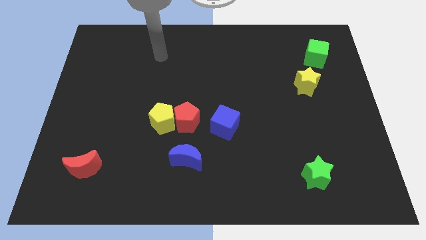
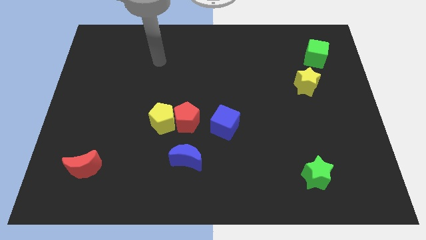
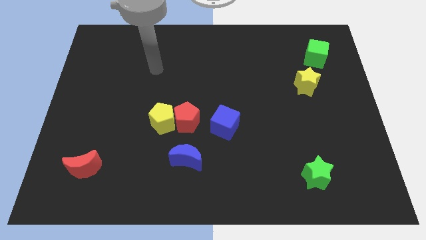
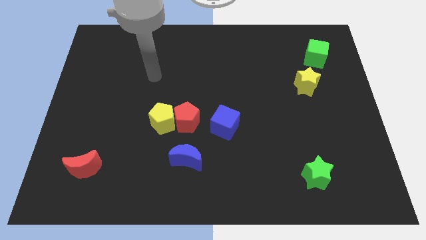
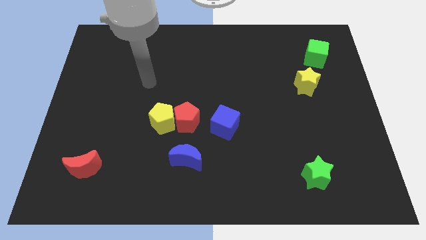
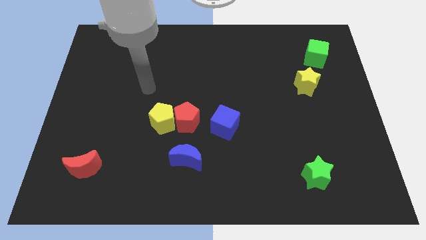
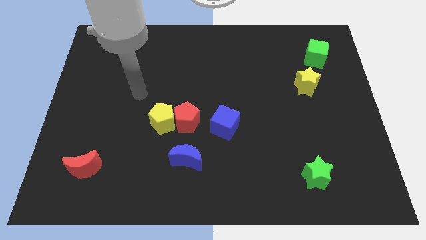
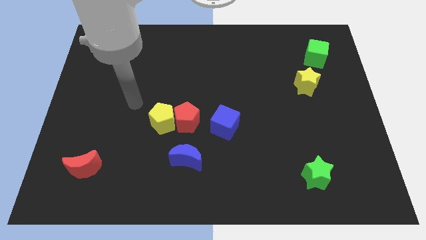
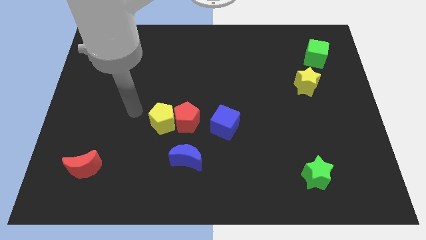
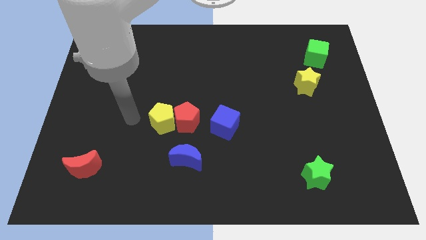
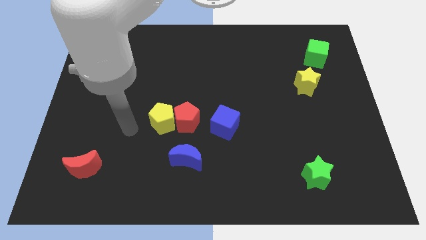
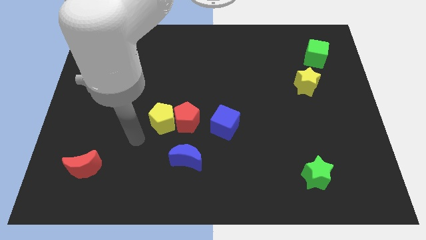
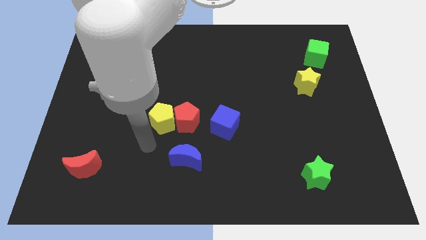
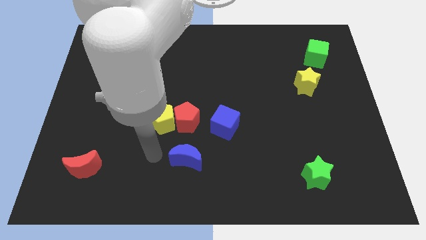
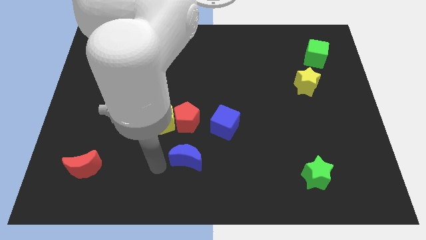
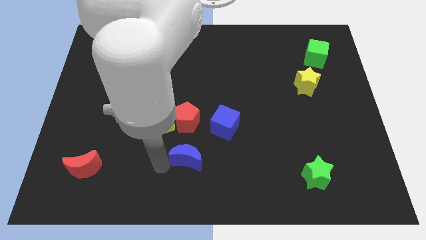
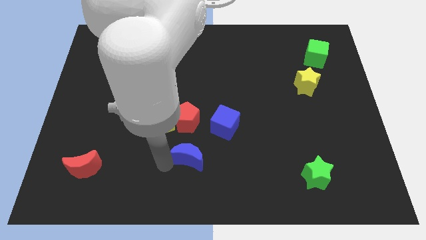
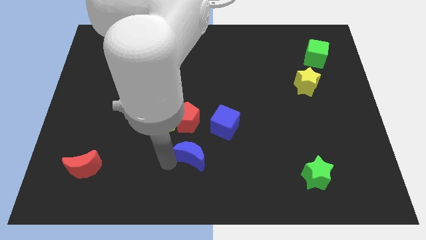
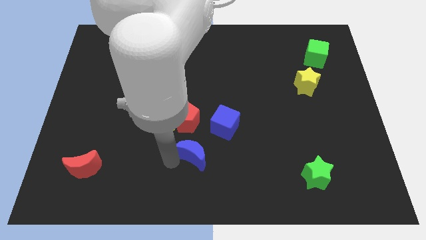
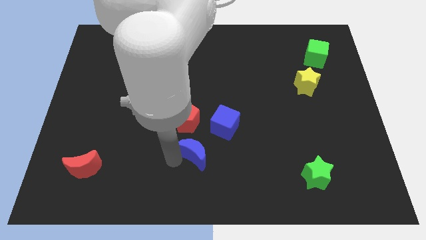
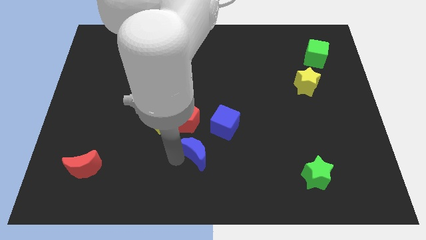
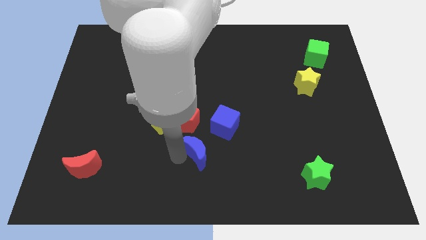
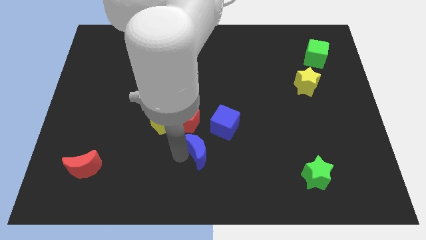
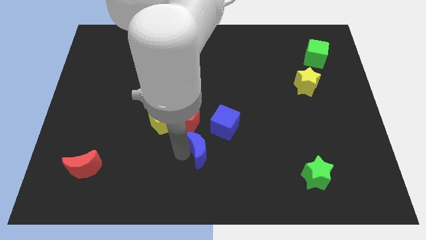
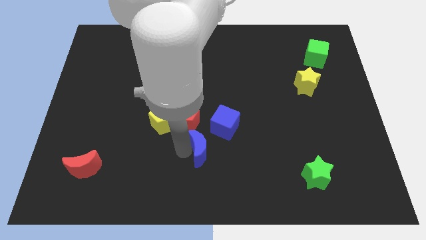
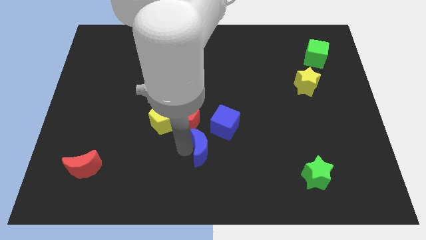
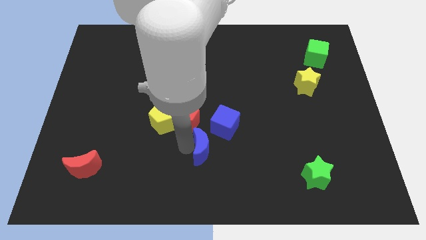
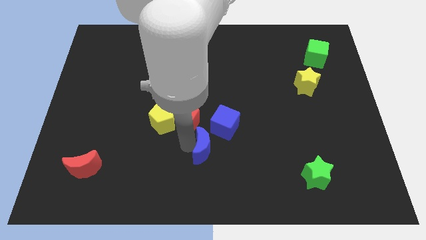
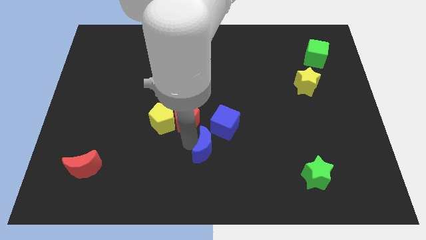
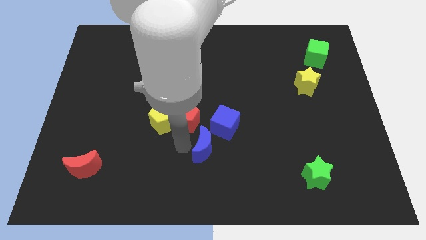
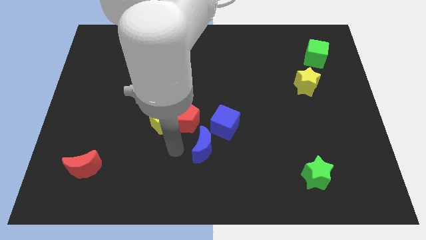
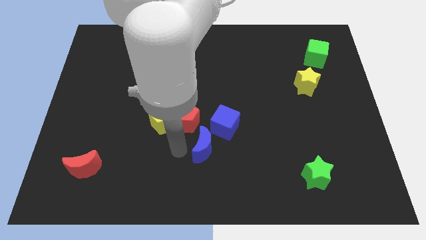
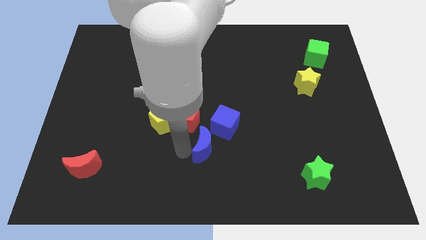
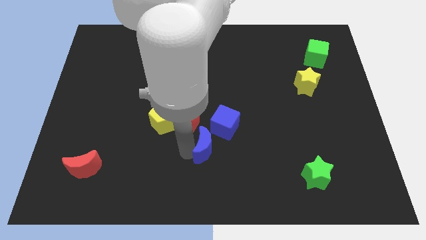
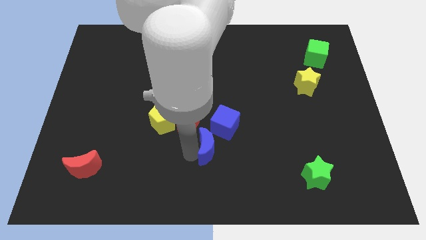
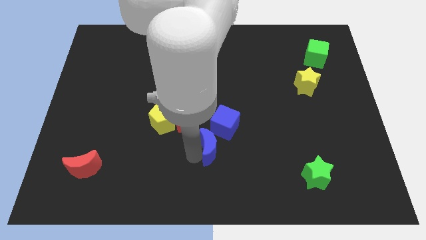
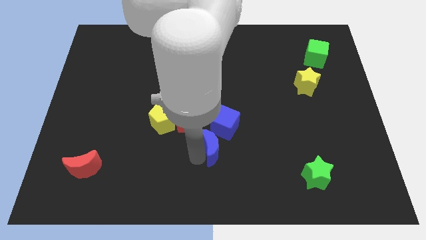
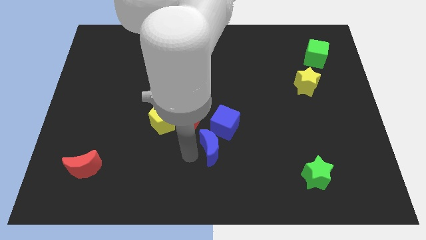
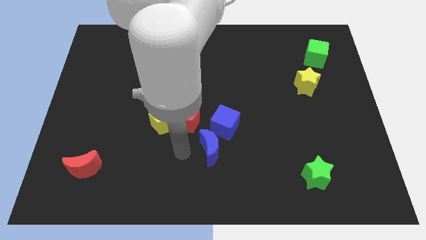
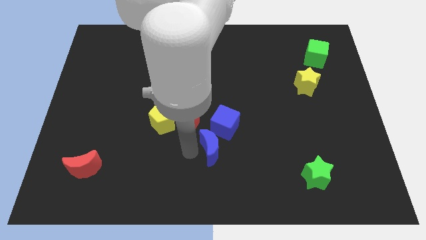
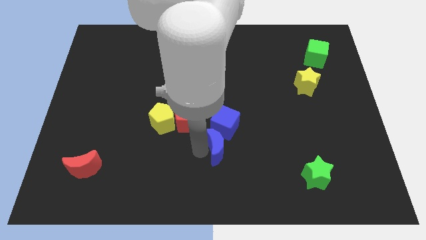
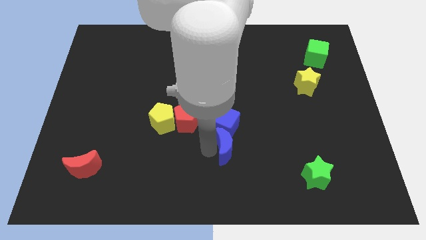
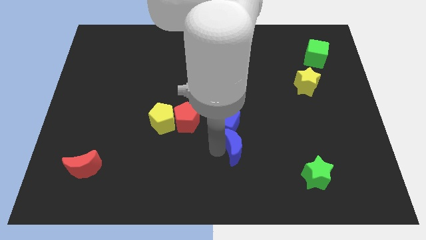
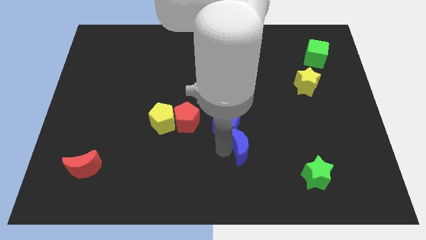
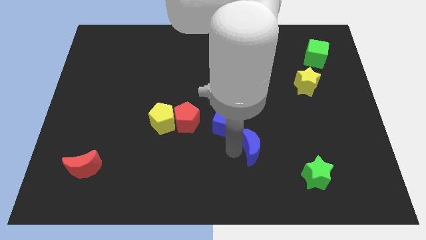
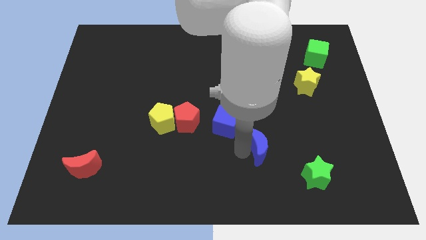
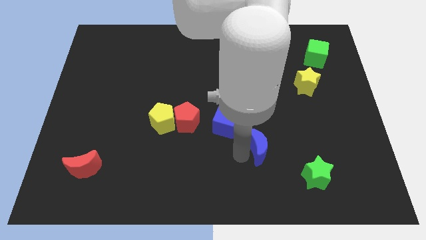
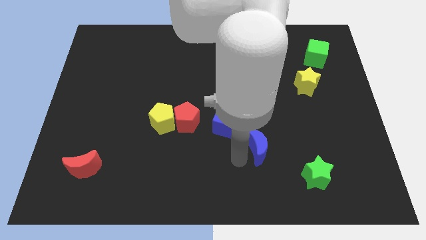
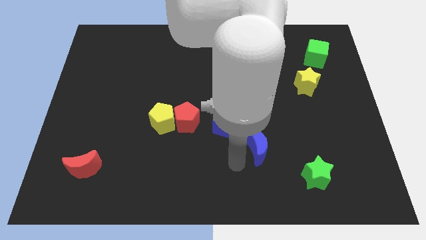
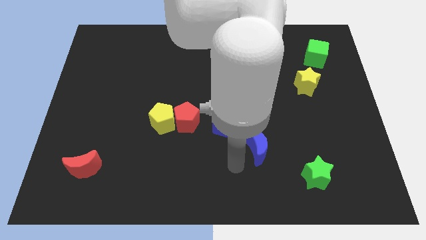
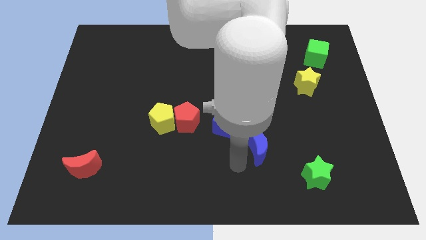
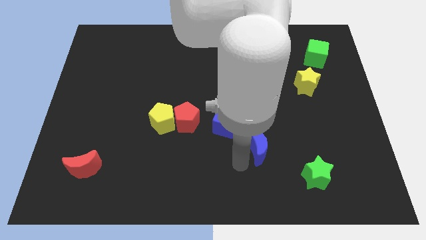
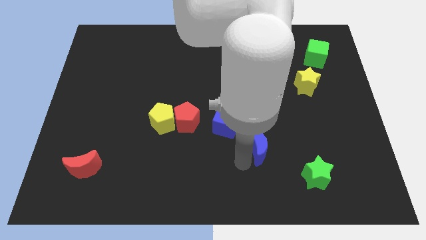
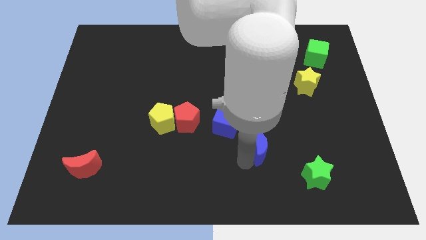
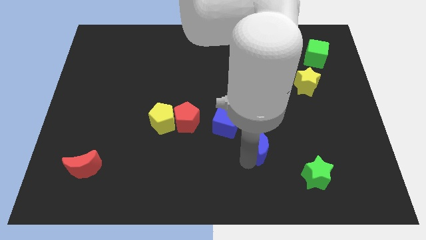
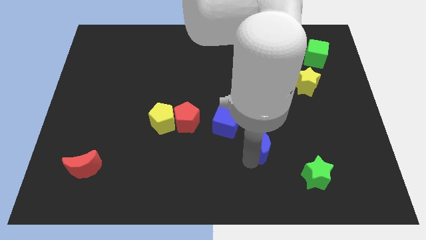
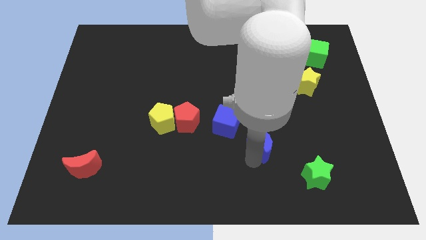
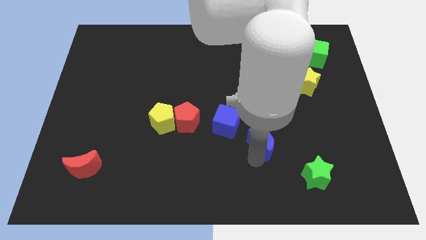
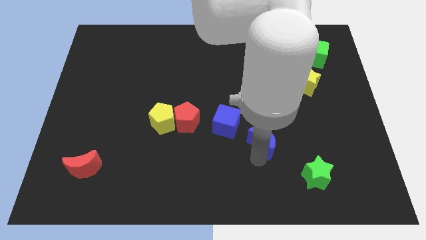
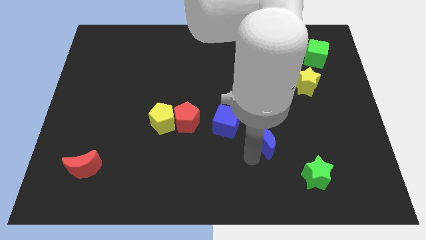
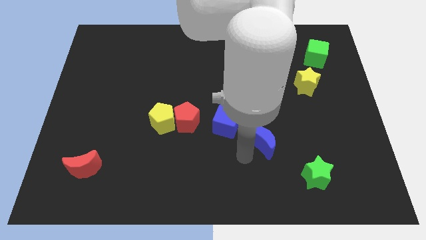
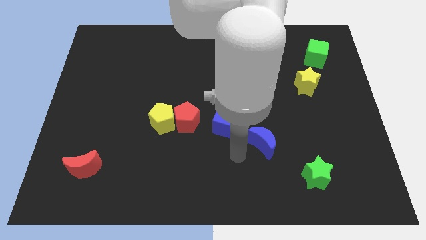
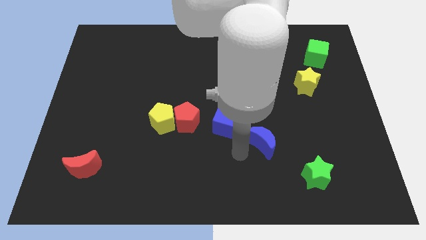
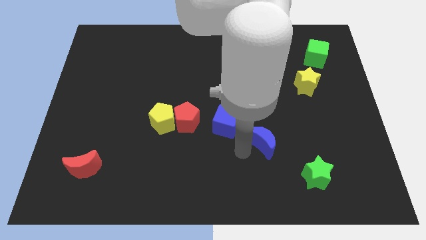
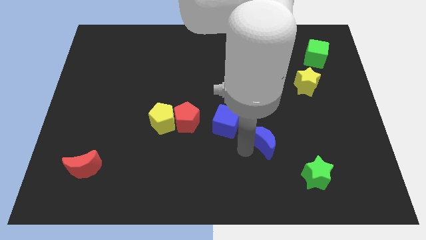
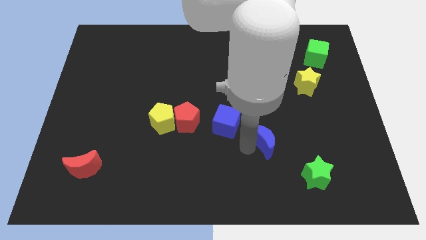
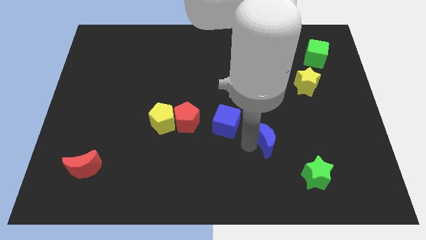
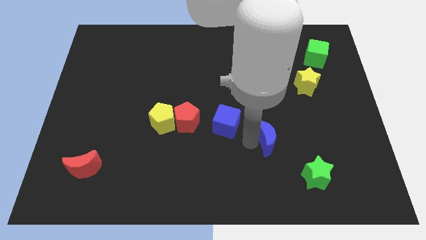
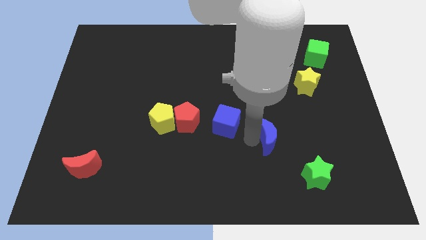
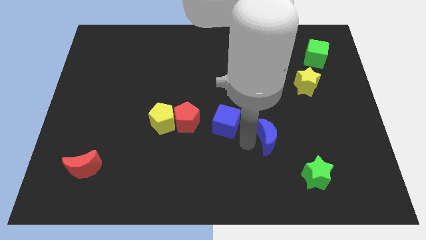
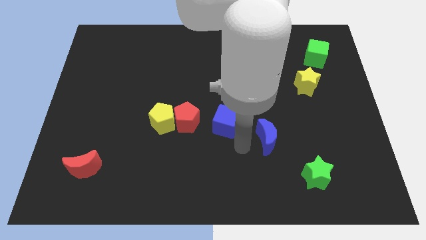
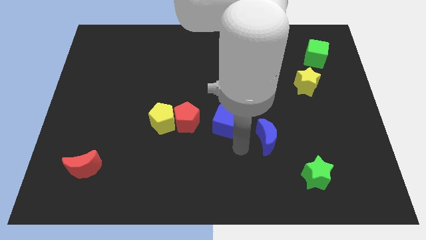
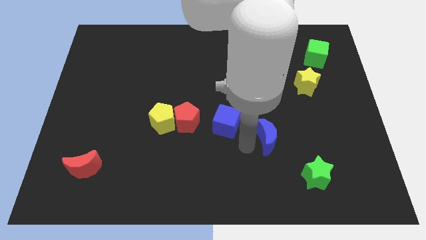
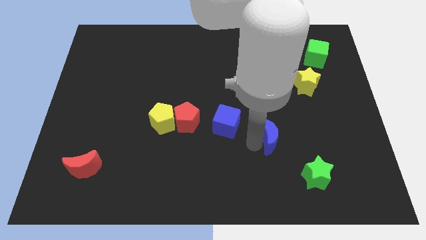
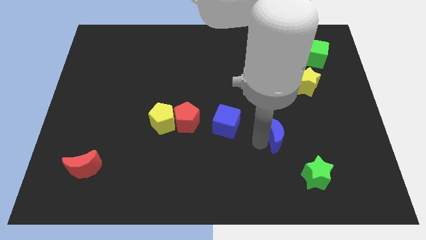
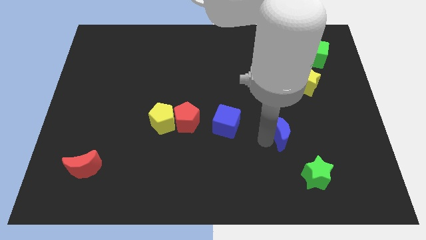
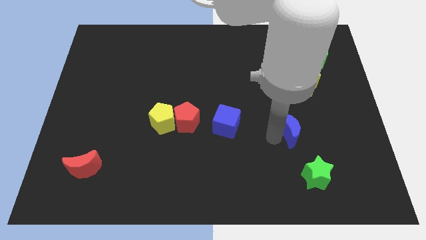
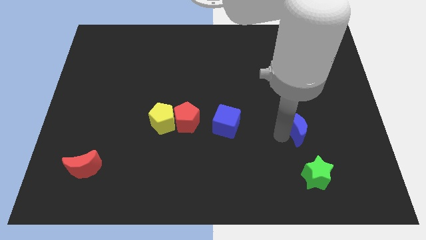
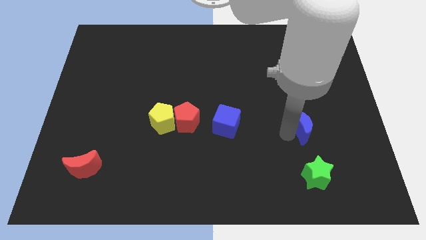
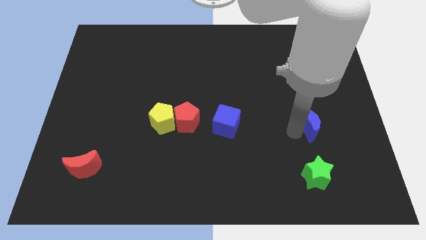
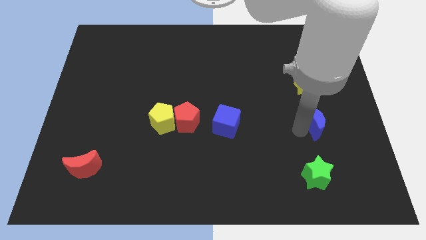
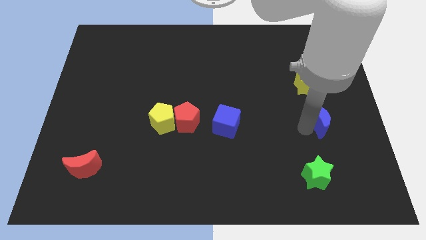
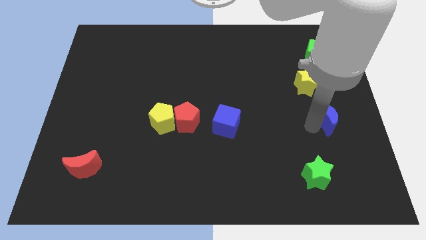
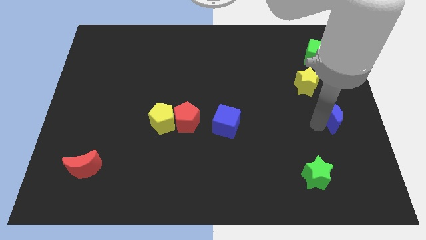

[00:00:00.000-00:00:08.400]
slide the blue moon to the right side
